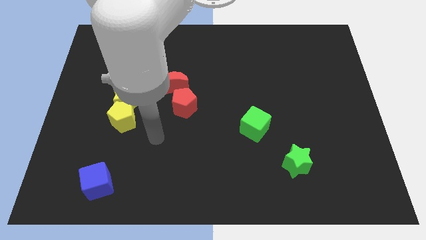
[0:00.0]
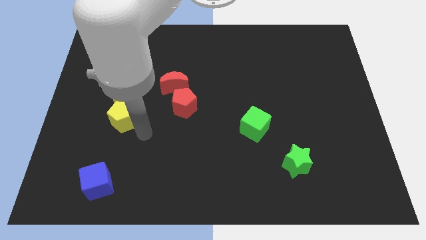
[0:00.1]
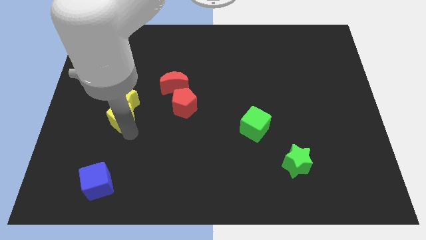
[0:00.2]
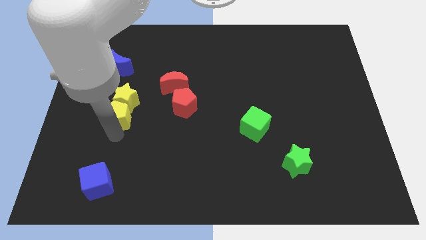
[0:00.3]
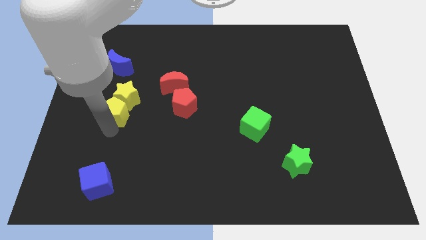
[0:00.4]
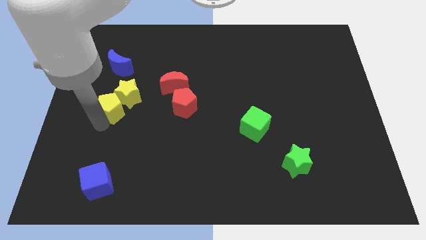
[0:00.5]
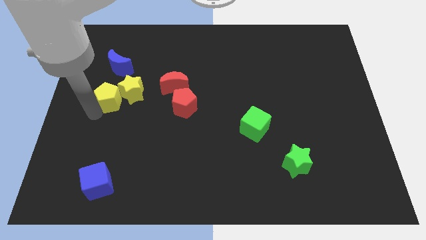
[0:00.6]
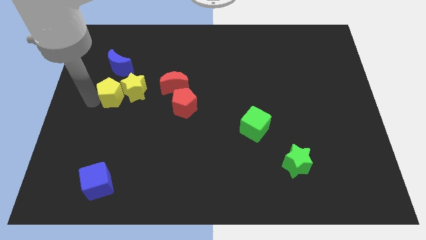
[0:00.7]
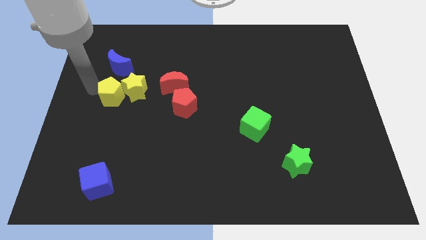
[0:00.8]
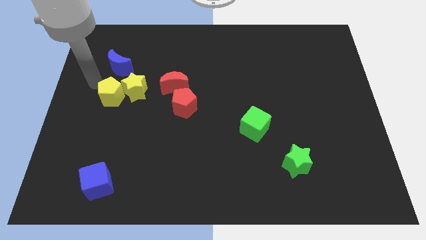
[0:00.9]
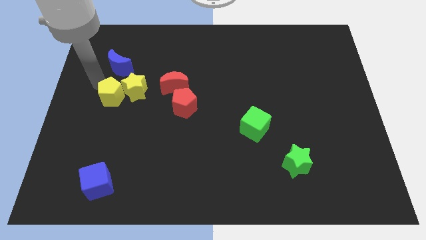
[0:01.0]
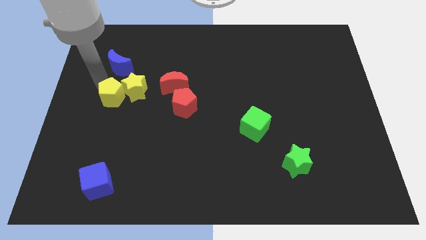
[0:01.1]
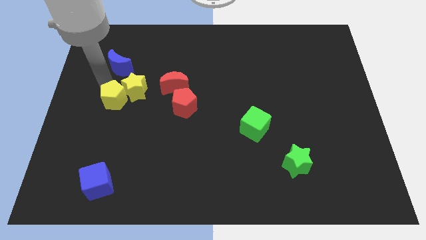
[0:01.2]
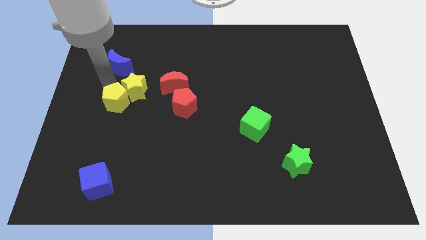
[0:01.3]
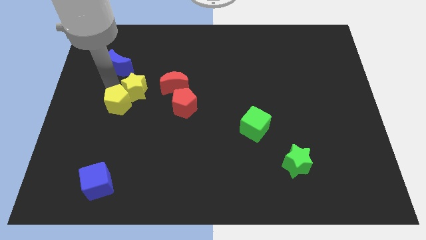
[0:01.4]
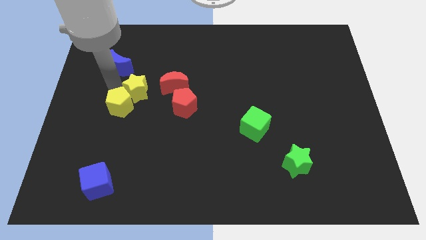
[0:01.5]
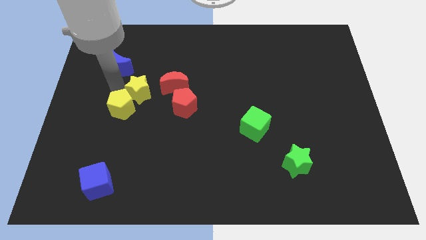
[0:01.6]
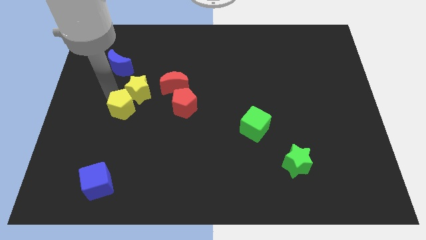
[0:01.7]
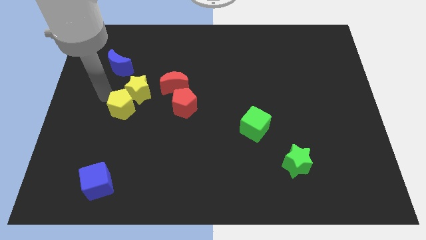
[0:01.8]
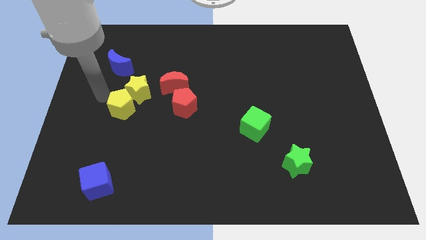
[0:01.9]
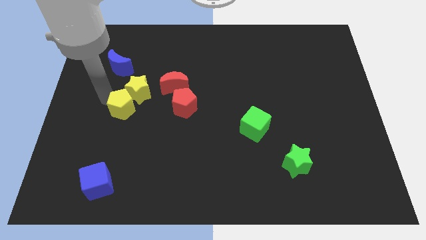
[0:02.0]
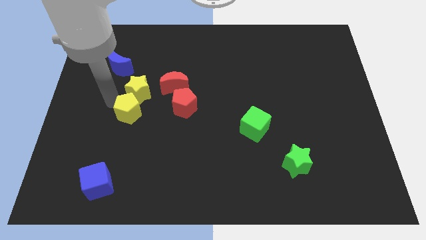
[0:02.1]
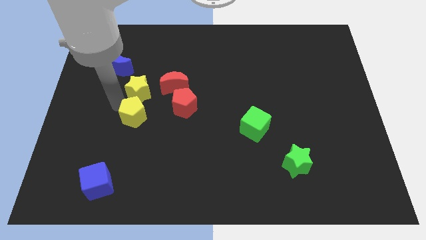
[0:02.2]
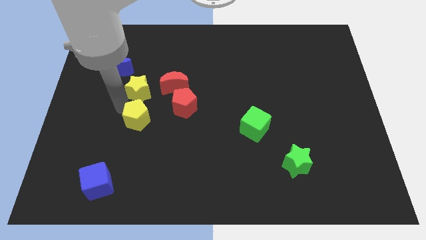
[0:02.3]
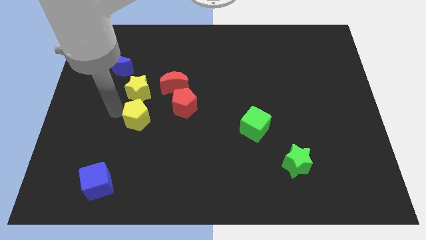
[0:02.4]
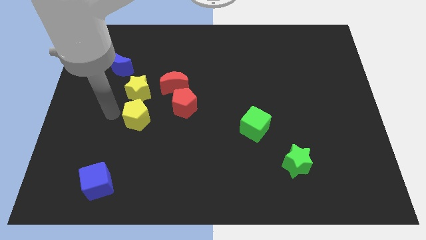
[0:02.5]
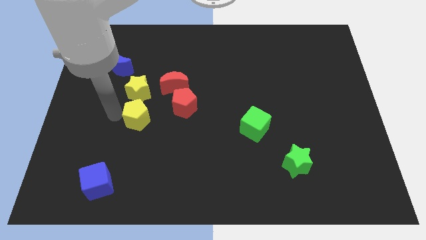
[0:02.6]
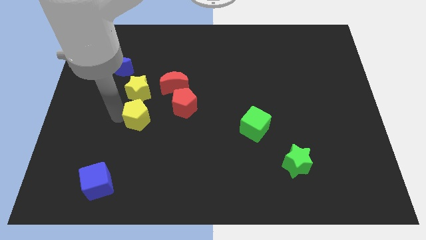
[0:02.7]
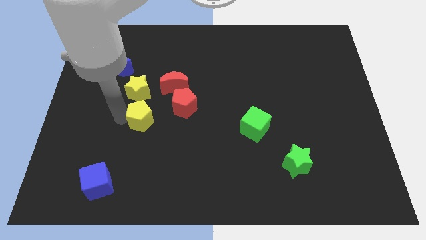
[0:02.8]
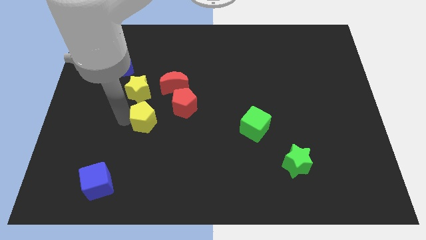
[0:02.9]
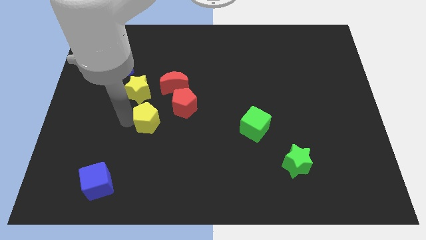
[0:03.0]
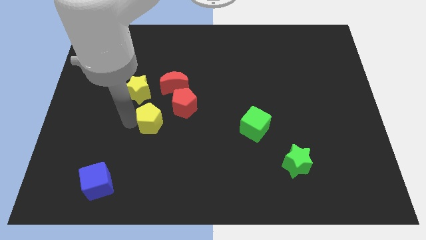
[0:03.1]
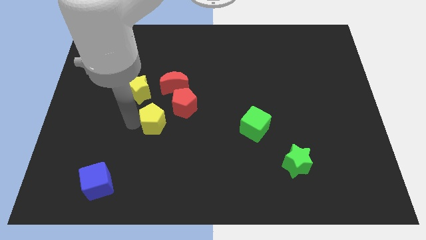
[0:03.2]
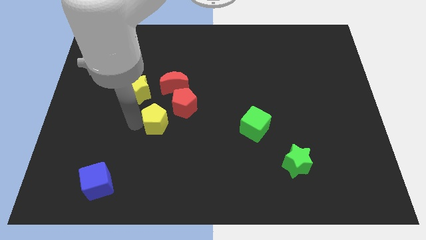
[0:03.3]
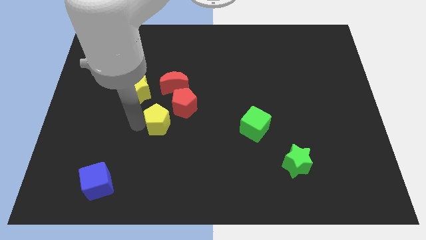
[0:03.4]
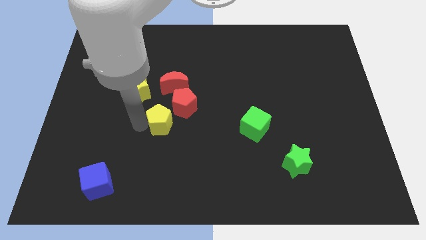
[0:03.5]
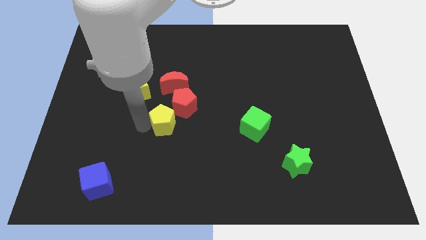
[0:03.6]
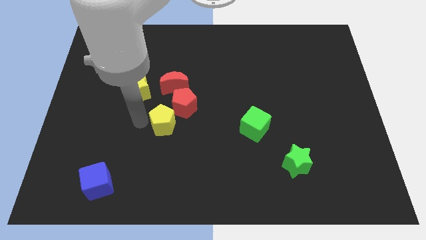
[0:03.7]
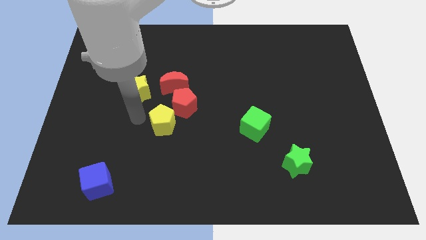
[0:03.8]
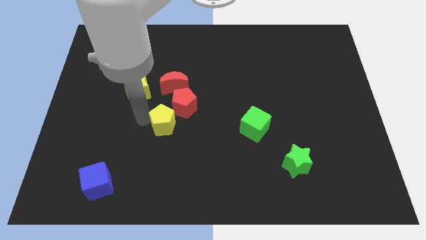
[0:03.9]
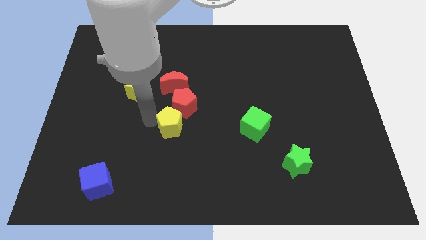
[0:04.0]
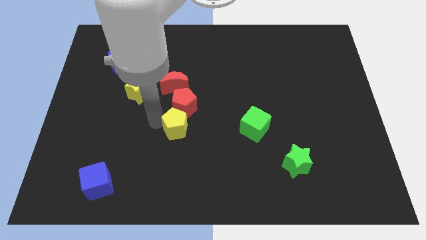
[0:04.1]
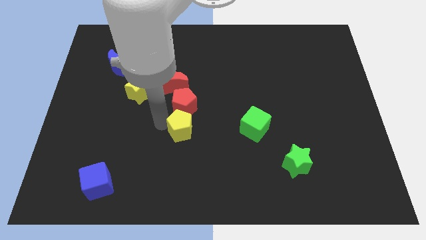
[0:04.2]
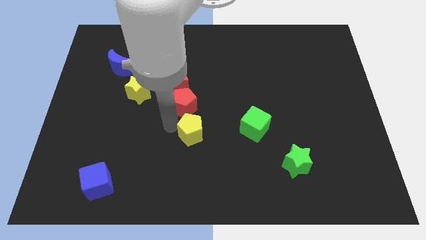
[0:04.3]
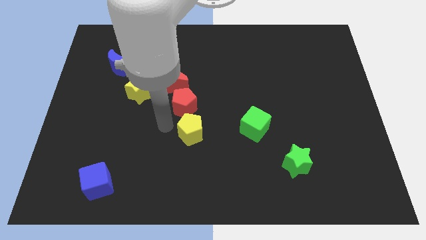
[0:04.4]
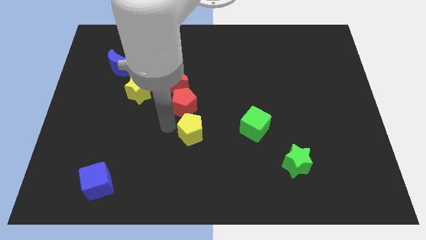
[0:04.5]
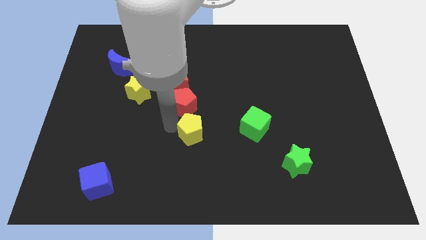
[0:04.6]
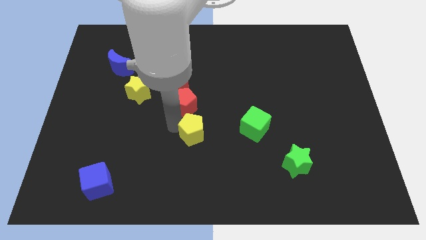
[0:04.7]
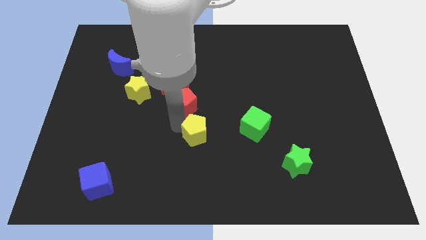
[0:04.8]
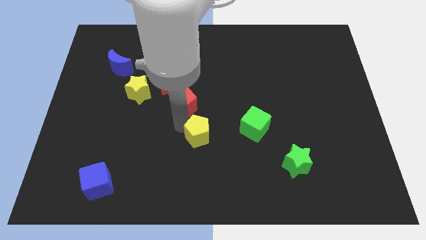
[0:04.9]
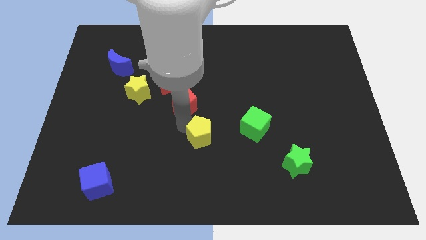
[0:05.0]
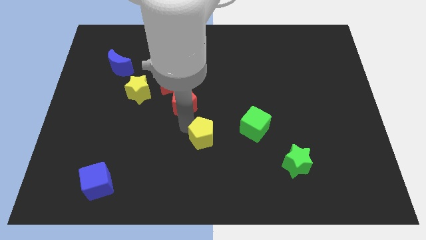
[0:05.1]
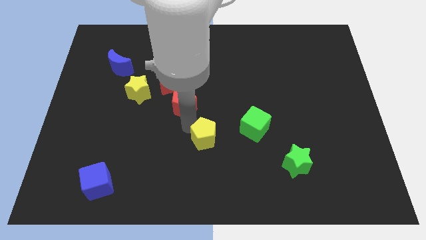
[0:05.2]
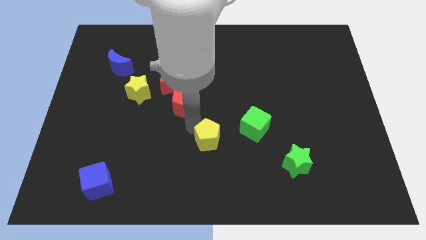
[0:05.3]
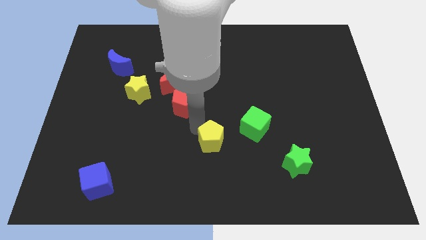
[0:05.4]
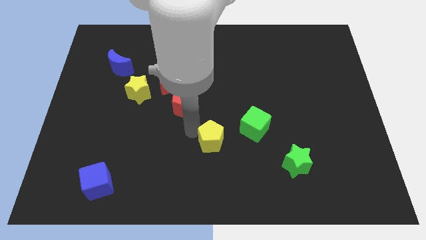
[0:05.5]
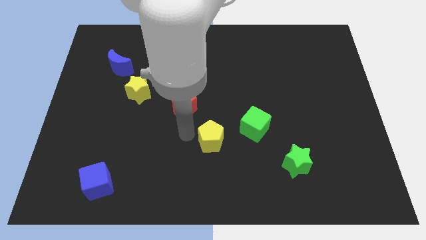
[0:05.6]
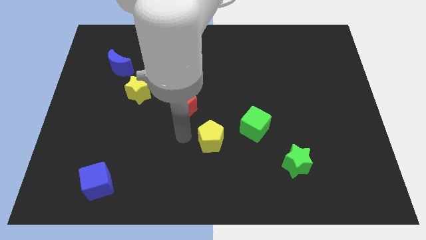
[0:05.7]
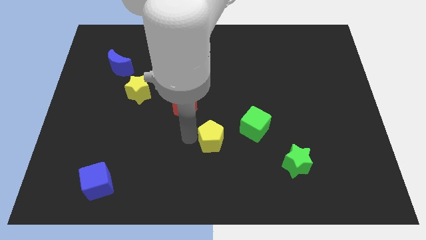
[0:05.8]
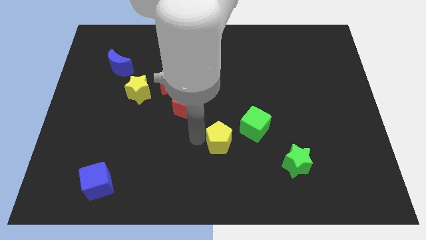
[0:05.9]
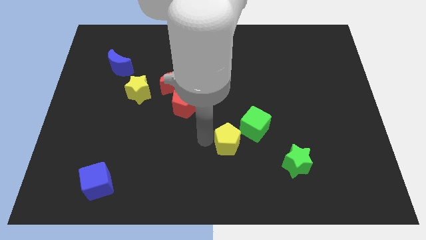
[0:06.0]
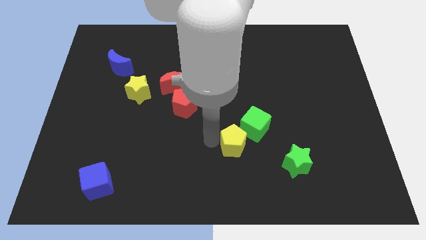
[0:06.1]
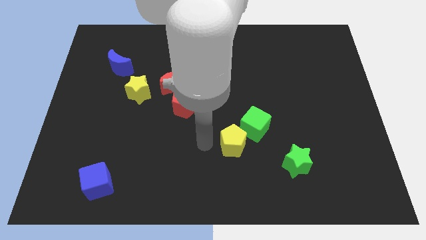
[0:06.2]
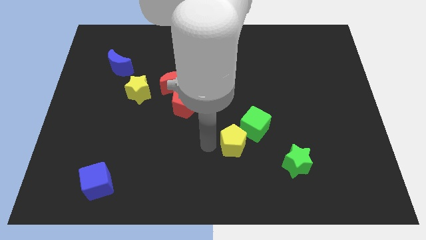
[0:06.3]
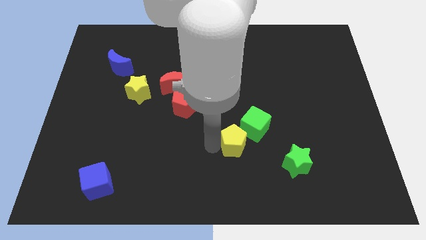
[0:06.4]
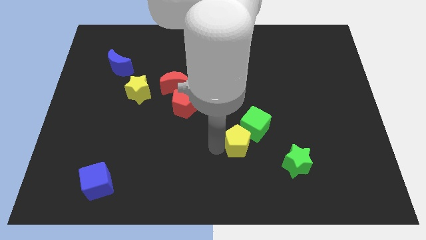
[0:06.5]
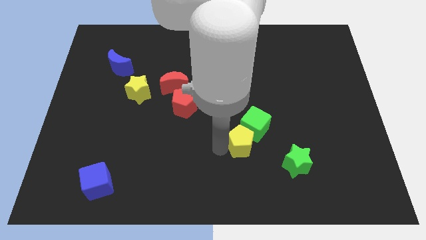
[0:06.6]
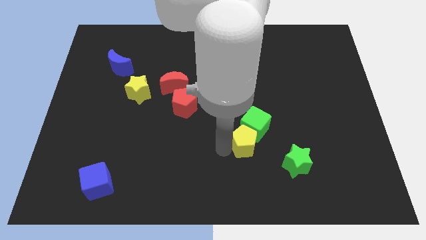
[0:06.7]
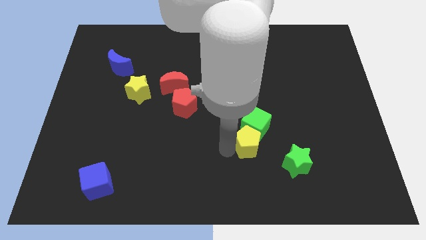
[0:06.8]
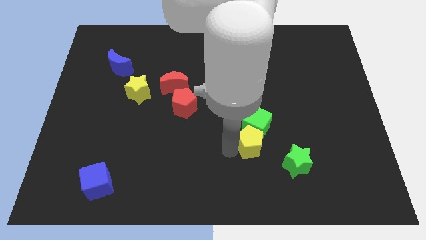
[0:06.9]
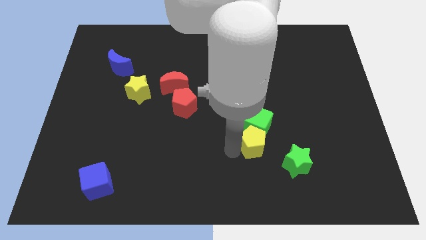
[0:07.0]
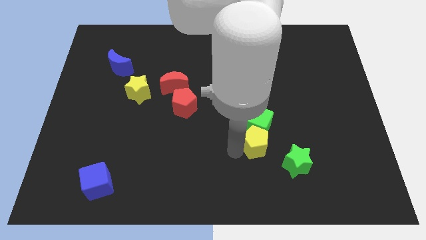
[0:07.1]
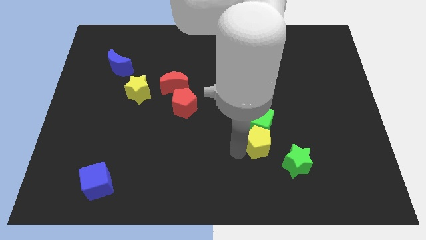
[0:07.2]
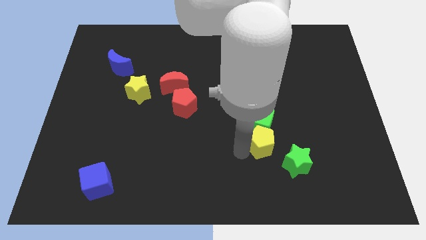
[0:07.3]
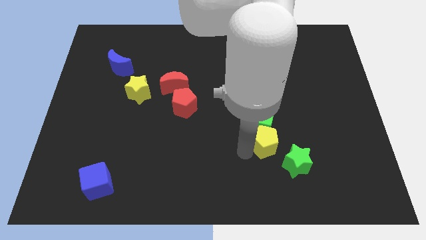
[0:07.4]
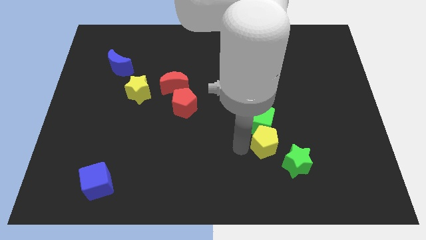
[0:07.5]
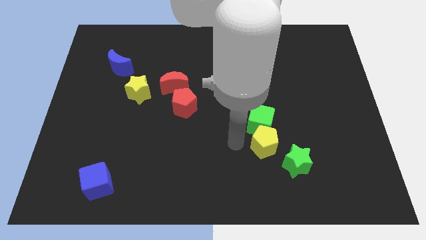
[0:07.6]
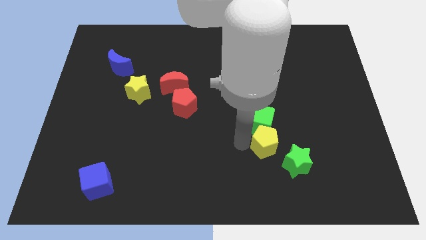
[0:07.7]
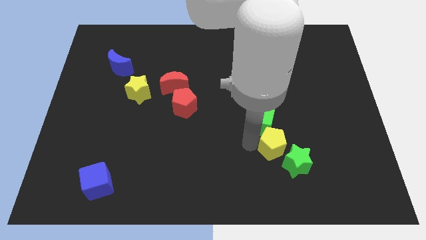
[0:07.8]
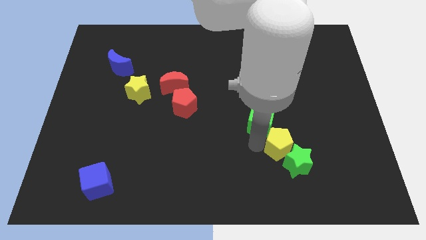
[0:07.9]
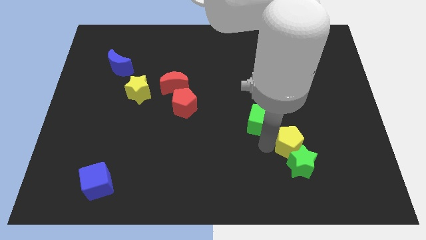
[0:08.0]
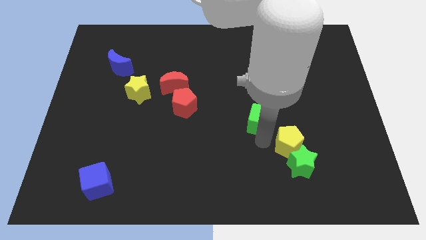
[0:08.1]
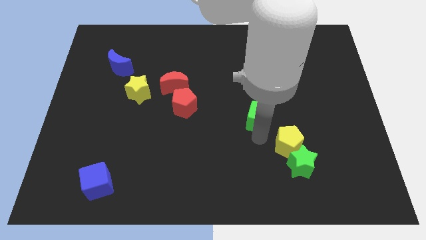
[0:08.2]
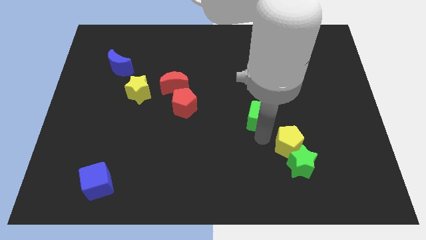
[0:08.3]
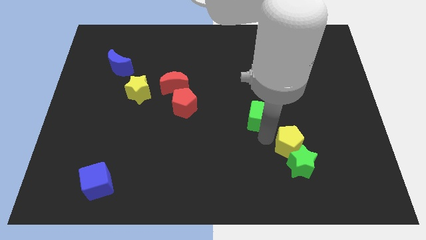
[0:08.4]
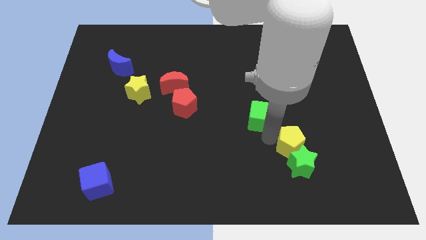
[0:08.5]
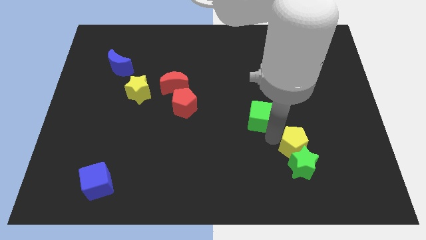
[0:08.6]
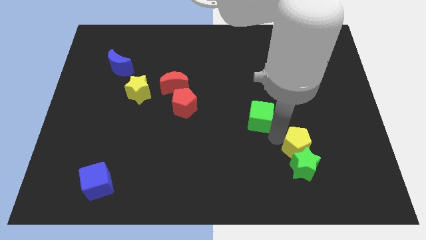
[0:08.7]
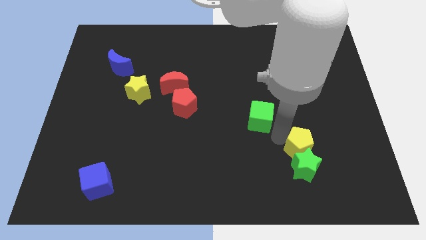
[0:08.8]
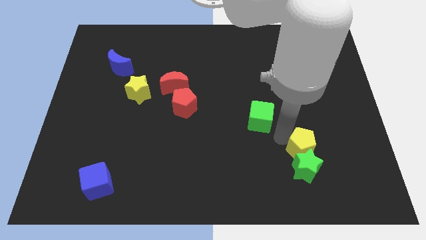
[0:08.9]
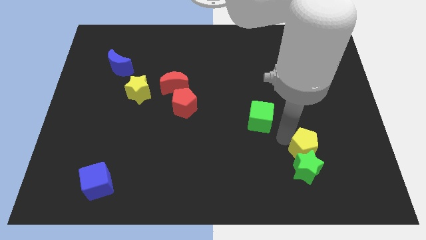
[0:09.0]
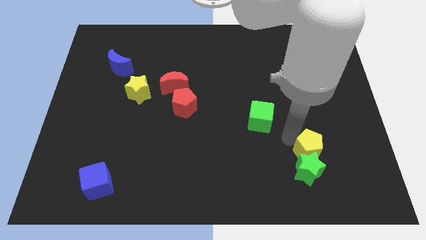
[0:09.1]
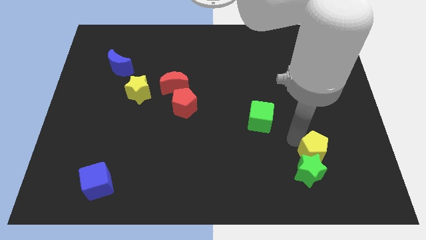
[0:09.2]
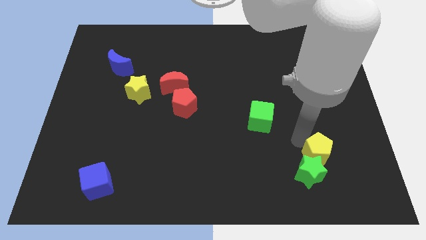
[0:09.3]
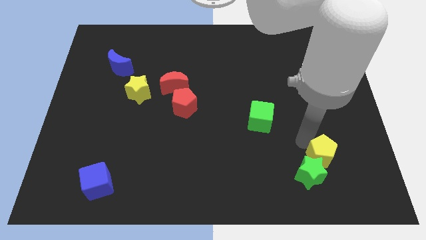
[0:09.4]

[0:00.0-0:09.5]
push the yellow pentagon just right of the green star
